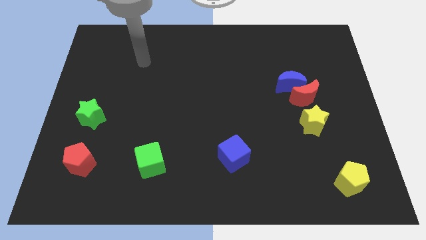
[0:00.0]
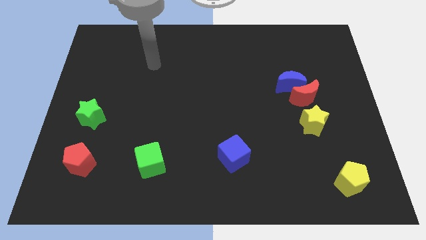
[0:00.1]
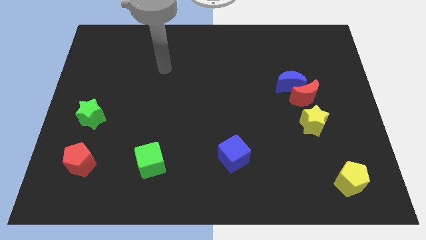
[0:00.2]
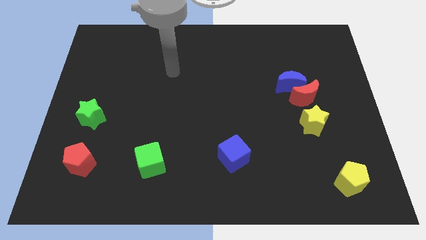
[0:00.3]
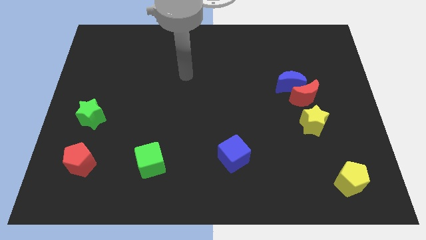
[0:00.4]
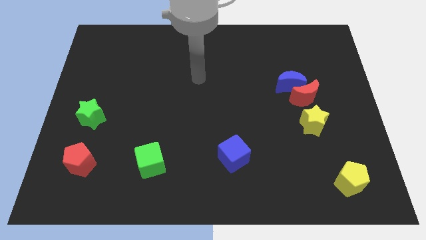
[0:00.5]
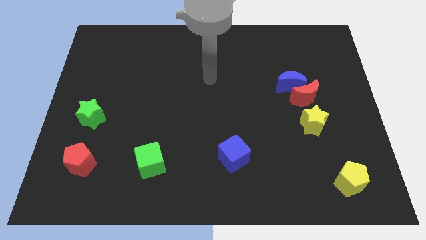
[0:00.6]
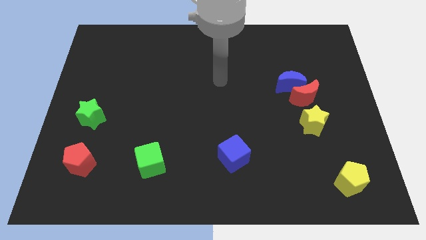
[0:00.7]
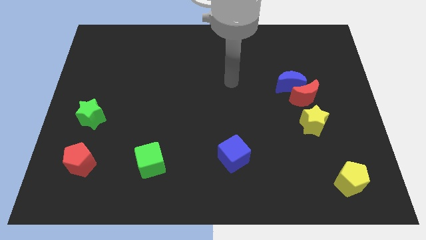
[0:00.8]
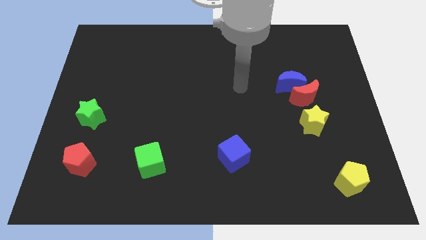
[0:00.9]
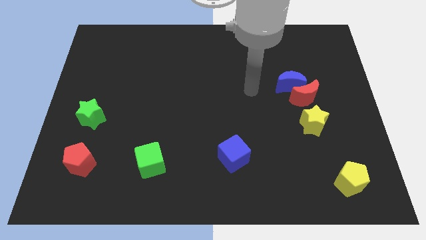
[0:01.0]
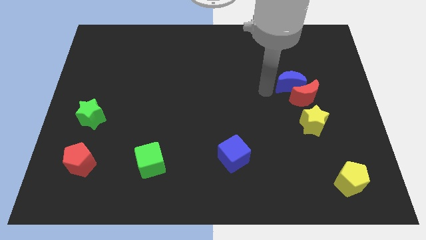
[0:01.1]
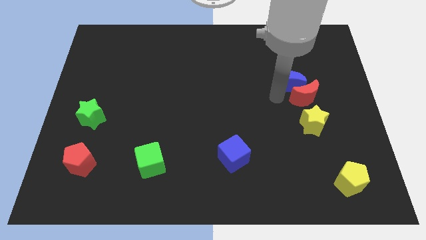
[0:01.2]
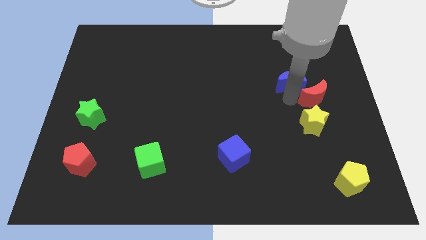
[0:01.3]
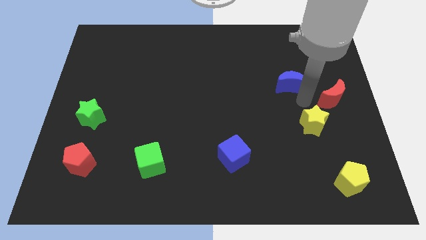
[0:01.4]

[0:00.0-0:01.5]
pull the blue moon apart from the red moon

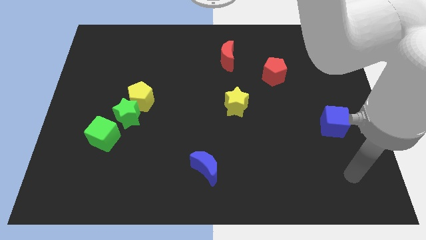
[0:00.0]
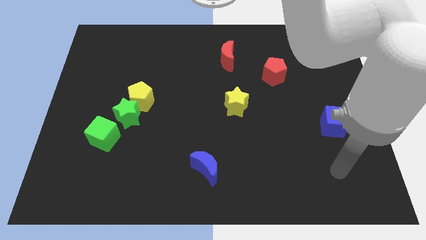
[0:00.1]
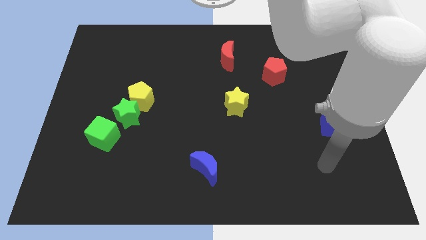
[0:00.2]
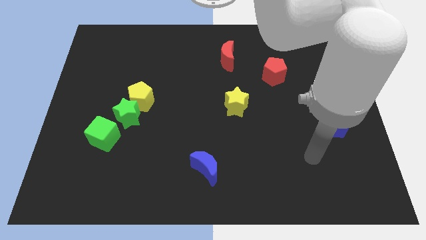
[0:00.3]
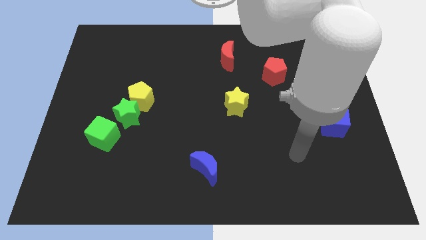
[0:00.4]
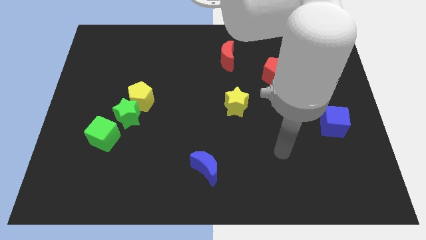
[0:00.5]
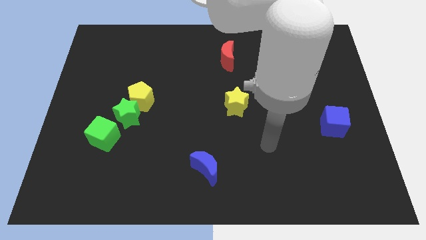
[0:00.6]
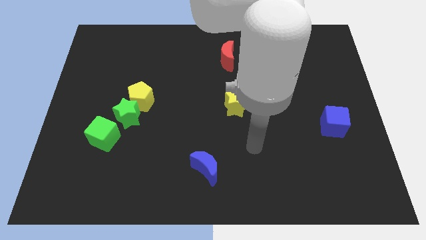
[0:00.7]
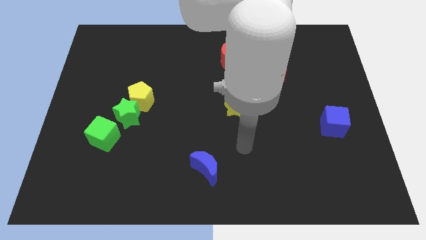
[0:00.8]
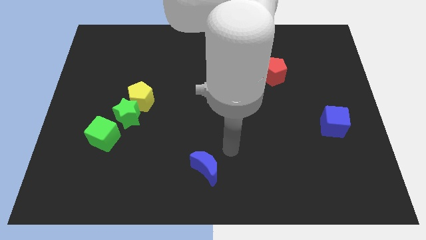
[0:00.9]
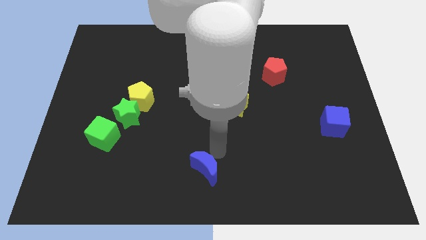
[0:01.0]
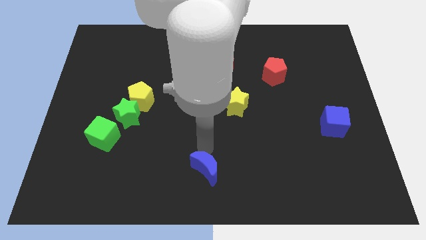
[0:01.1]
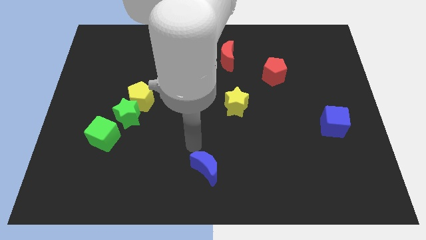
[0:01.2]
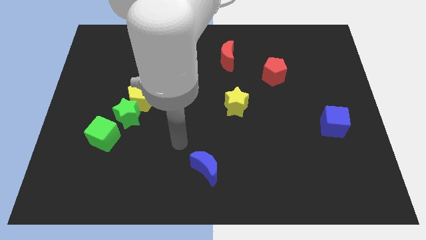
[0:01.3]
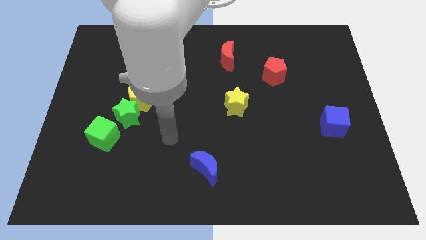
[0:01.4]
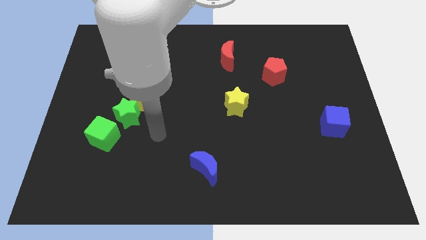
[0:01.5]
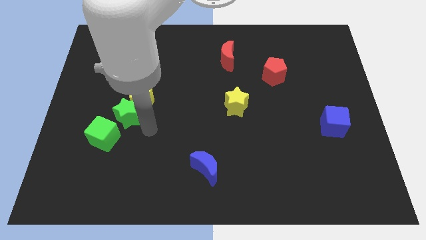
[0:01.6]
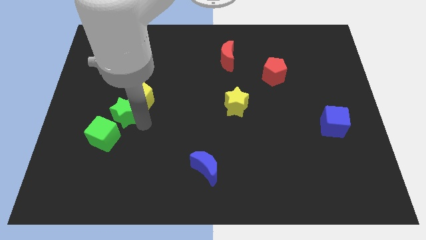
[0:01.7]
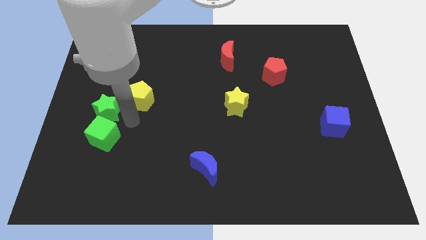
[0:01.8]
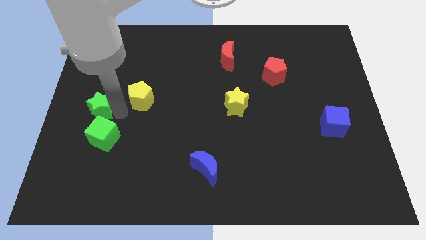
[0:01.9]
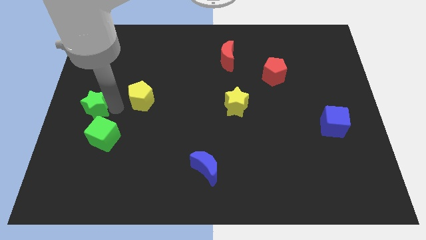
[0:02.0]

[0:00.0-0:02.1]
separate the yellow pentagon from the green star

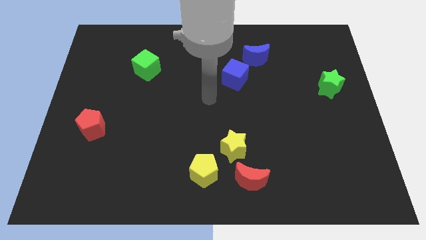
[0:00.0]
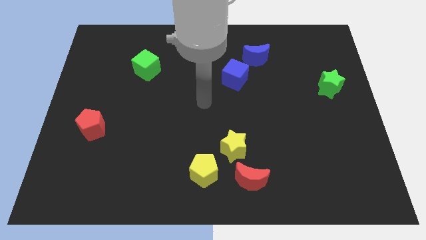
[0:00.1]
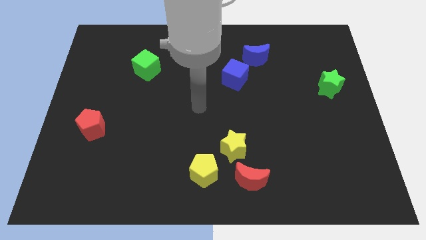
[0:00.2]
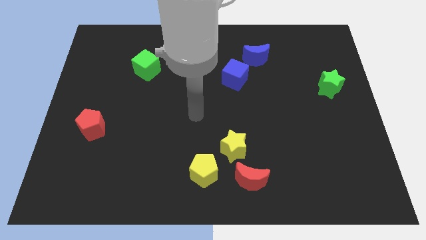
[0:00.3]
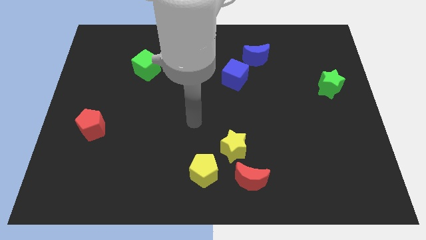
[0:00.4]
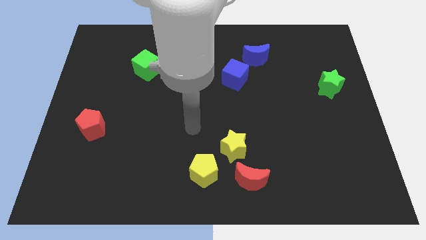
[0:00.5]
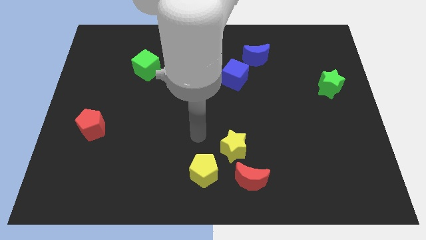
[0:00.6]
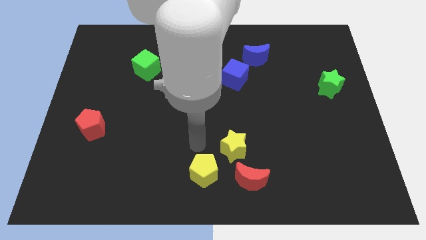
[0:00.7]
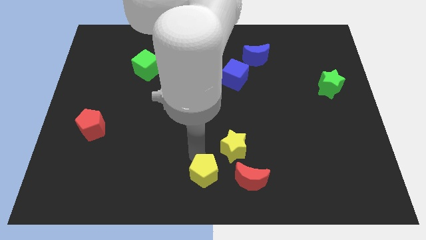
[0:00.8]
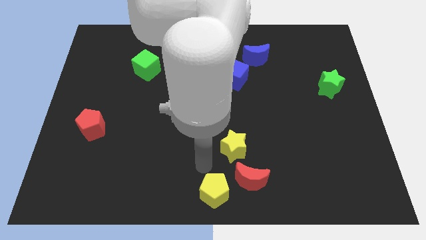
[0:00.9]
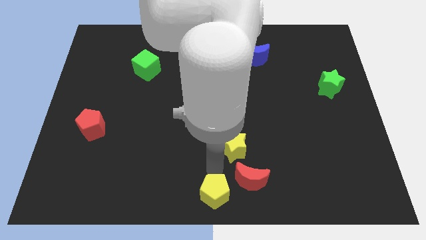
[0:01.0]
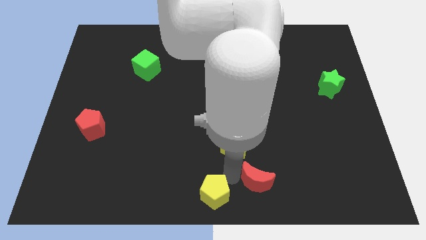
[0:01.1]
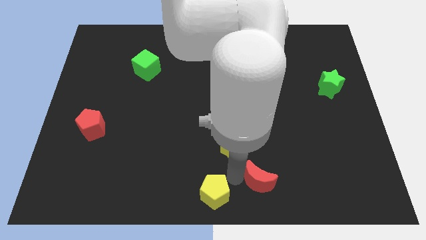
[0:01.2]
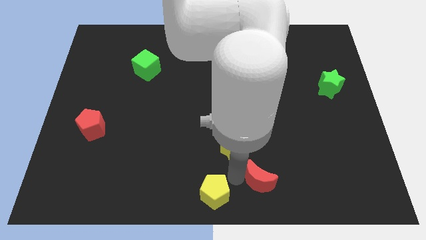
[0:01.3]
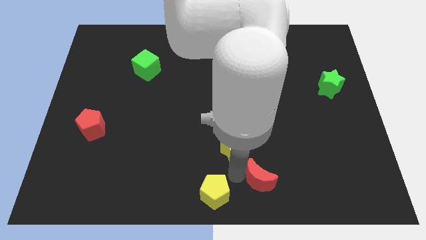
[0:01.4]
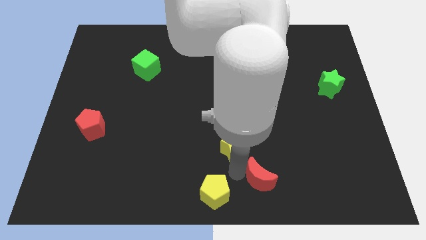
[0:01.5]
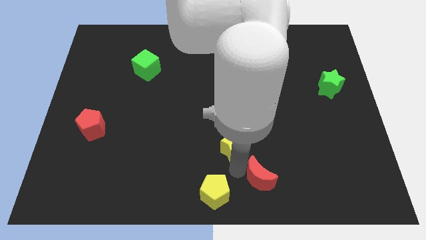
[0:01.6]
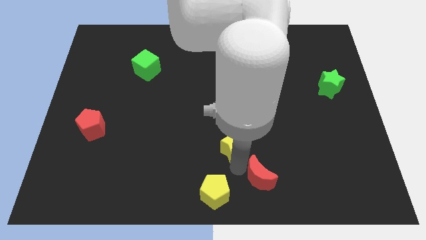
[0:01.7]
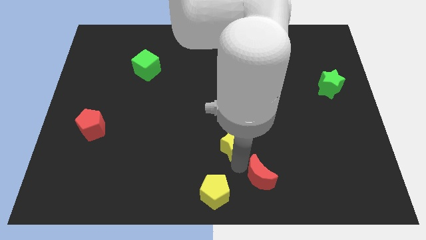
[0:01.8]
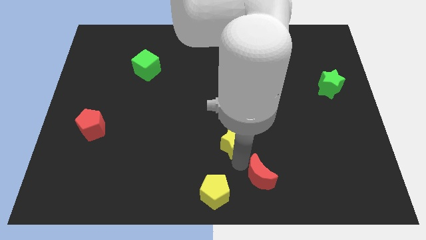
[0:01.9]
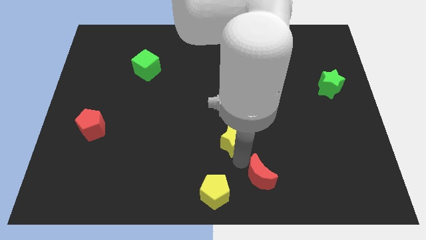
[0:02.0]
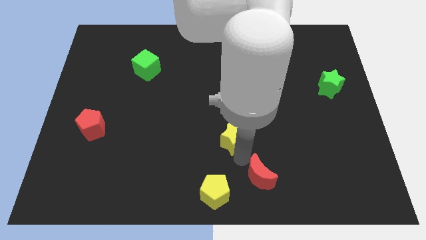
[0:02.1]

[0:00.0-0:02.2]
separate the yellow star from the red moon and yellow pentagon

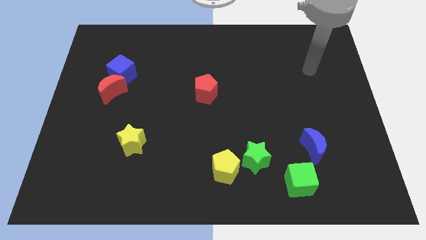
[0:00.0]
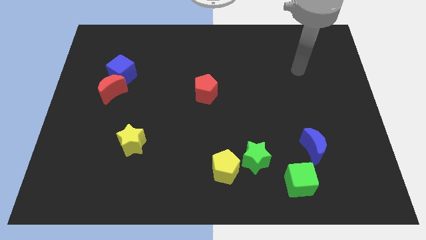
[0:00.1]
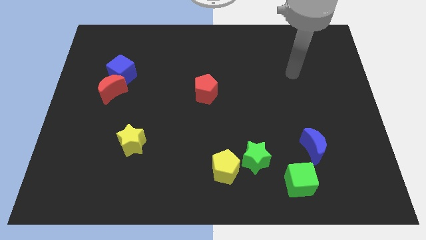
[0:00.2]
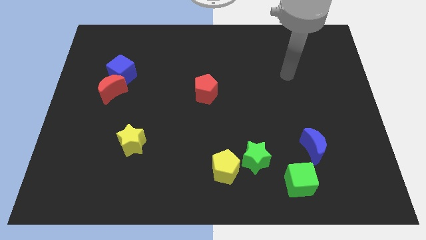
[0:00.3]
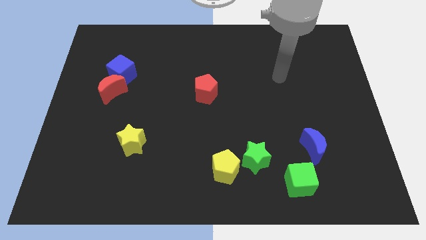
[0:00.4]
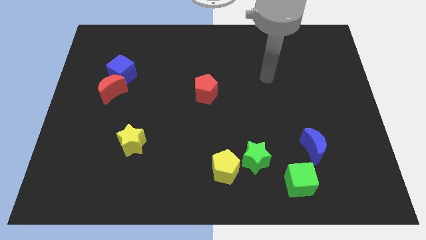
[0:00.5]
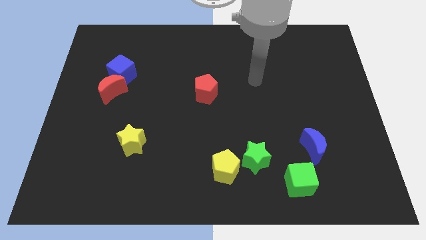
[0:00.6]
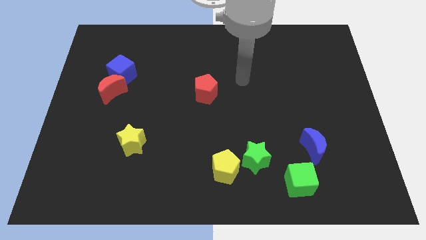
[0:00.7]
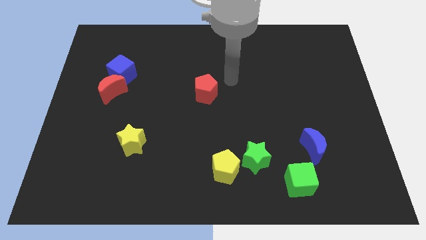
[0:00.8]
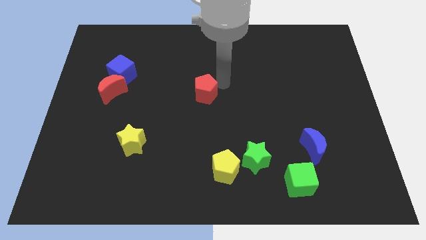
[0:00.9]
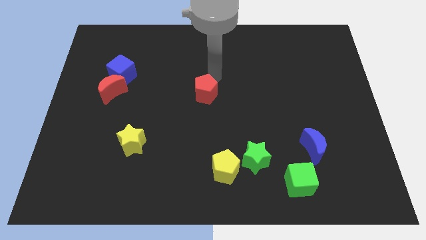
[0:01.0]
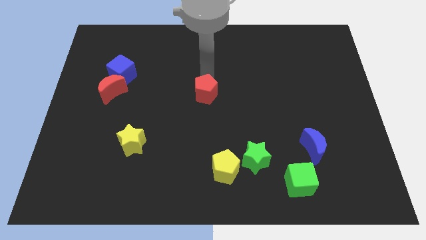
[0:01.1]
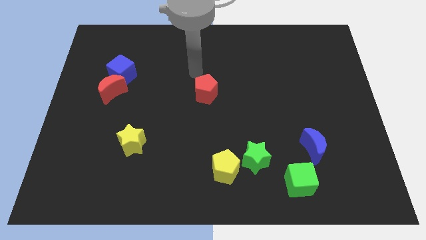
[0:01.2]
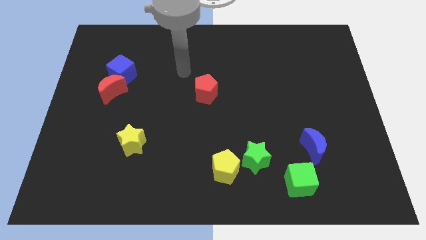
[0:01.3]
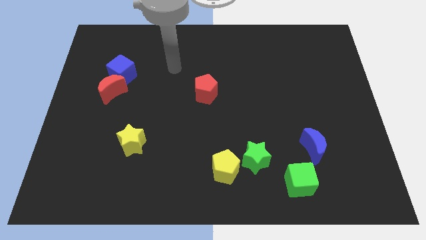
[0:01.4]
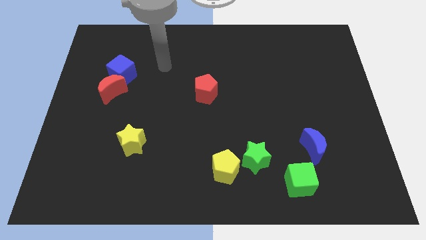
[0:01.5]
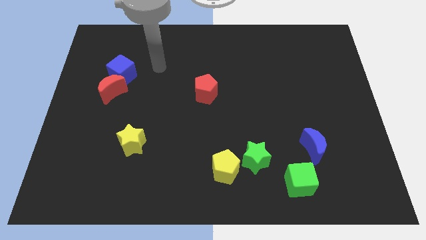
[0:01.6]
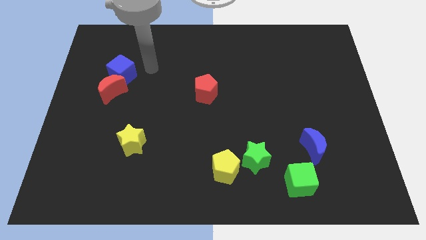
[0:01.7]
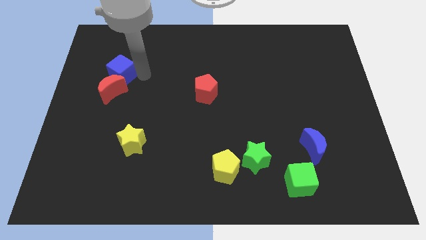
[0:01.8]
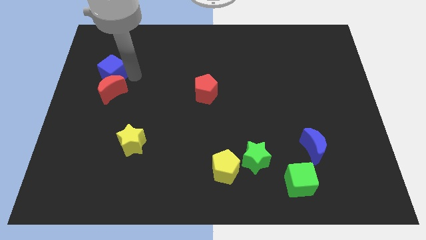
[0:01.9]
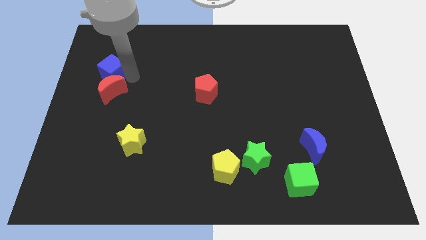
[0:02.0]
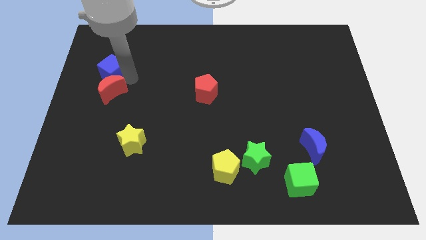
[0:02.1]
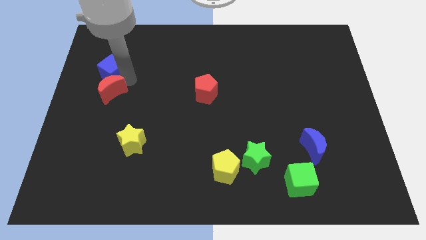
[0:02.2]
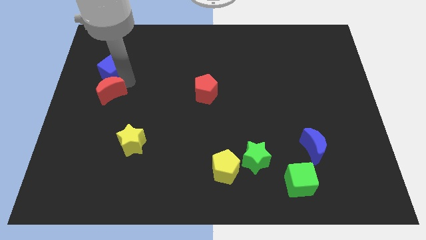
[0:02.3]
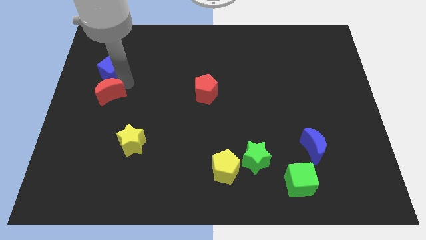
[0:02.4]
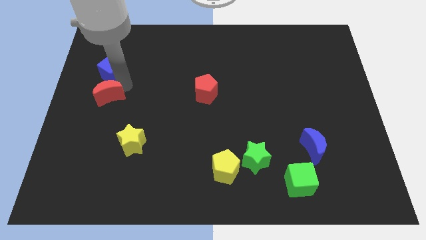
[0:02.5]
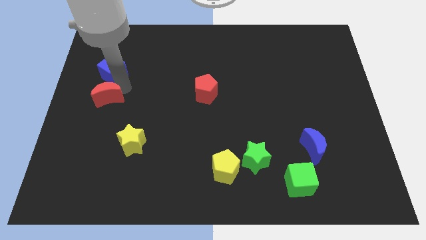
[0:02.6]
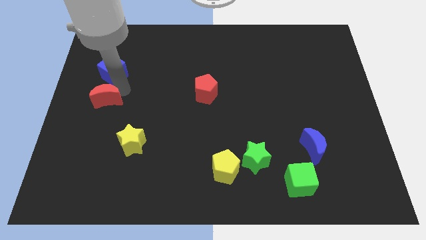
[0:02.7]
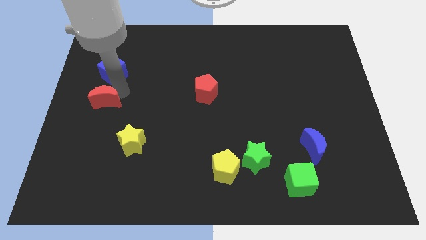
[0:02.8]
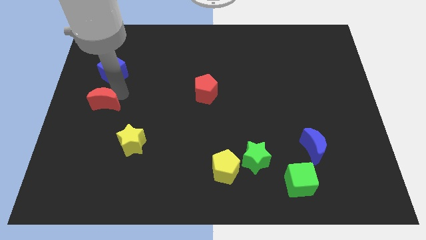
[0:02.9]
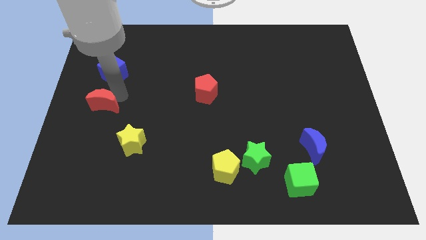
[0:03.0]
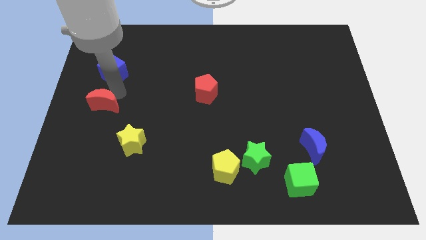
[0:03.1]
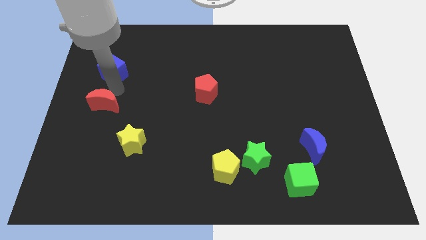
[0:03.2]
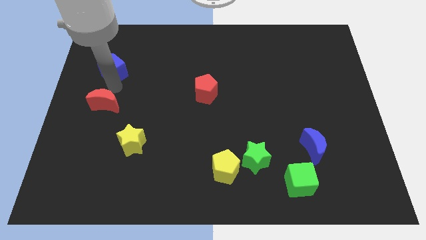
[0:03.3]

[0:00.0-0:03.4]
pull the red moon apart from the blue cube

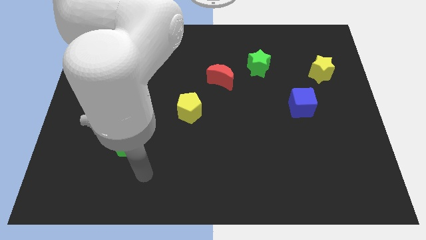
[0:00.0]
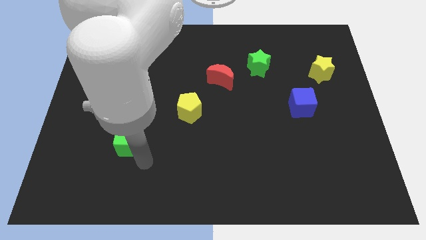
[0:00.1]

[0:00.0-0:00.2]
move the red pentagon away from the blue moon
